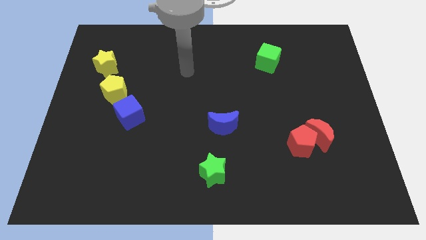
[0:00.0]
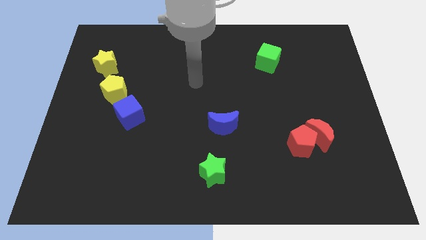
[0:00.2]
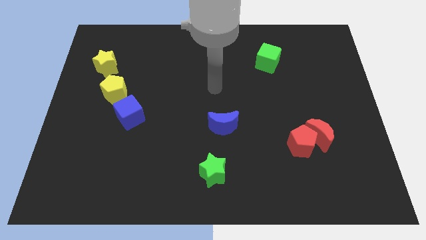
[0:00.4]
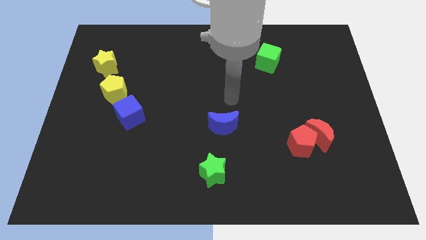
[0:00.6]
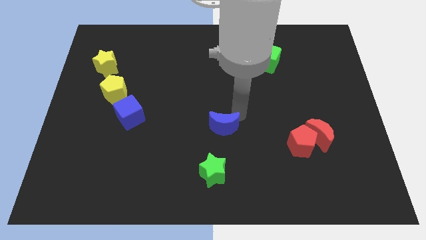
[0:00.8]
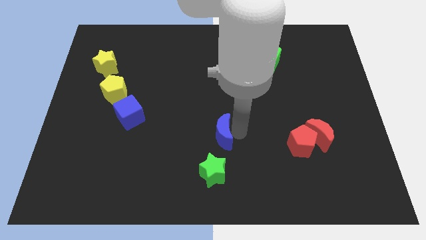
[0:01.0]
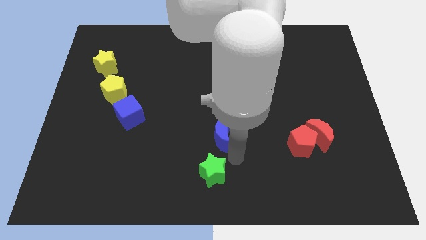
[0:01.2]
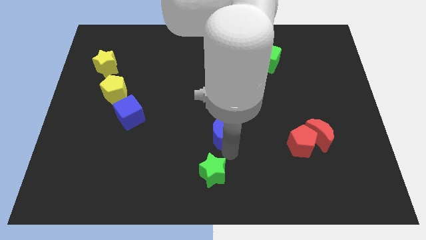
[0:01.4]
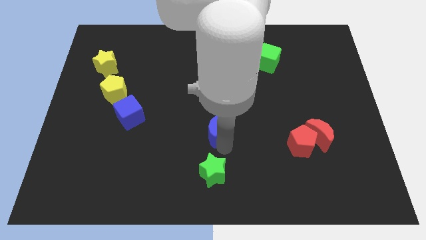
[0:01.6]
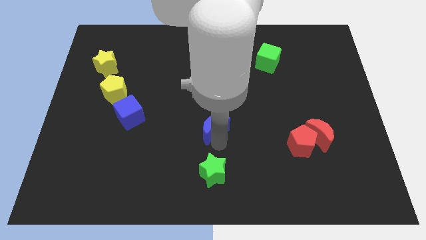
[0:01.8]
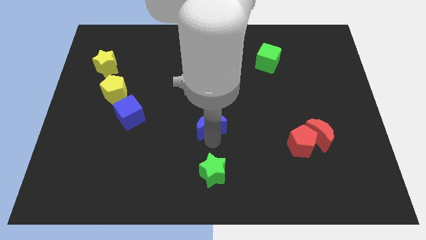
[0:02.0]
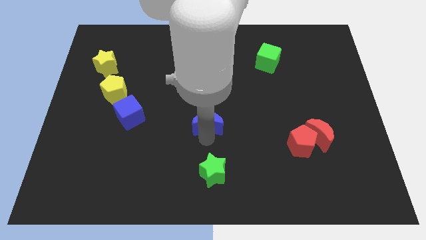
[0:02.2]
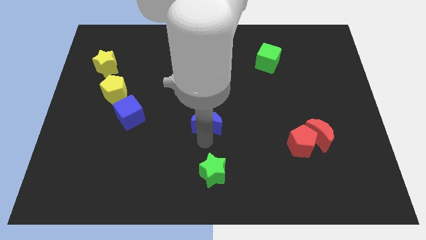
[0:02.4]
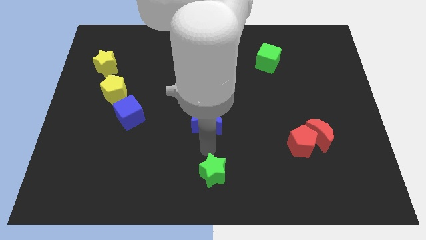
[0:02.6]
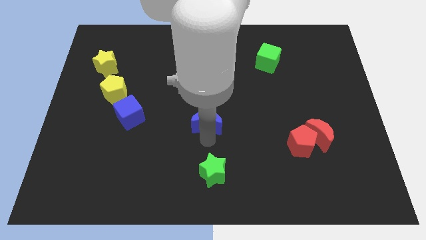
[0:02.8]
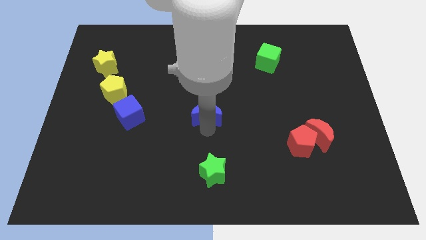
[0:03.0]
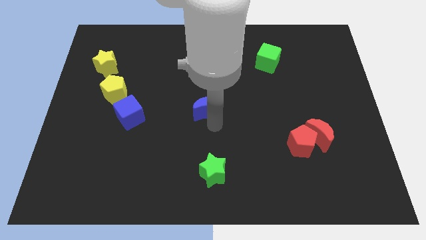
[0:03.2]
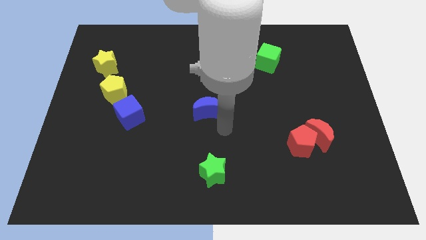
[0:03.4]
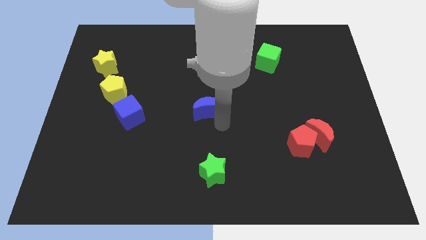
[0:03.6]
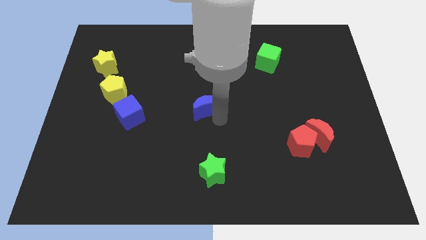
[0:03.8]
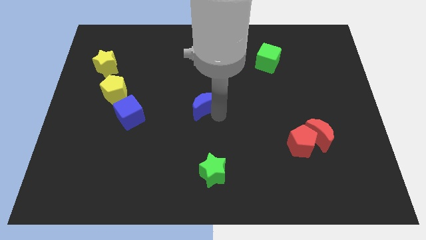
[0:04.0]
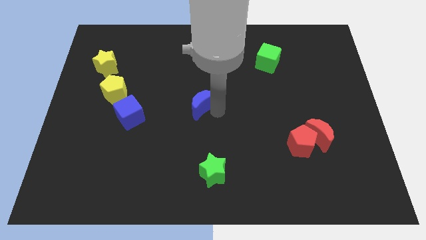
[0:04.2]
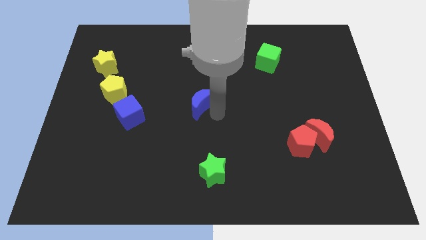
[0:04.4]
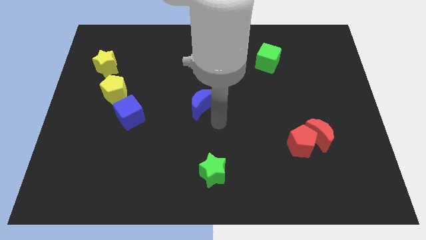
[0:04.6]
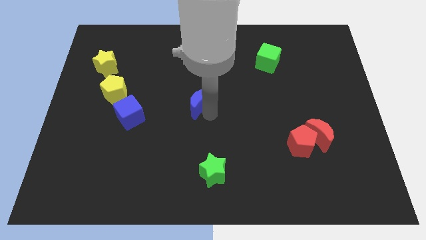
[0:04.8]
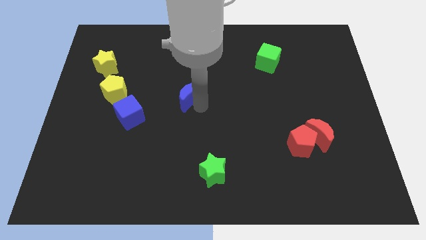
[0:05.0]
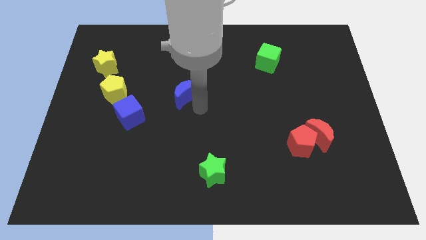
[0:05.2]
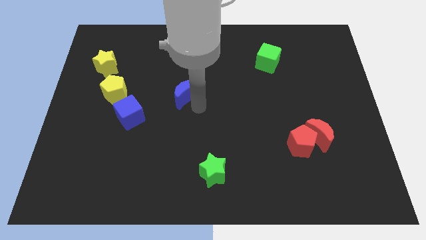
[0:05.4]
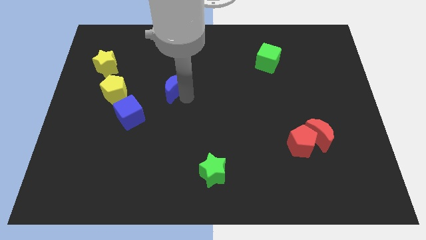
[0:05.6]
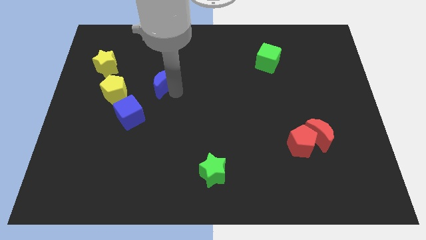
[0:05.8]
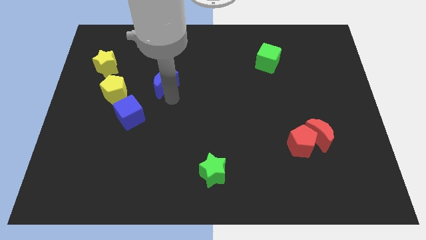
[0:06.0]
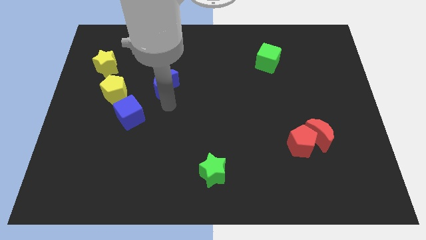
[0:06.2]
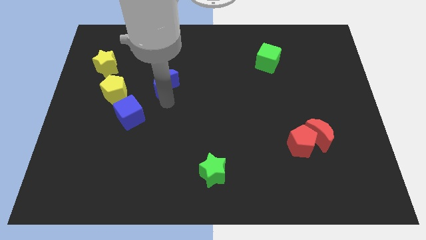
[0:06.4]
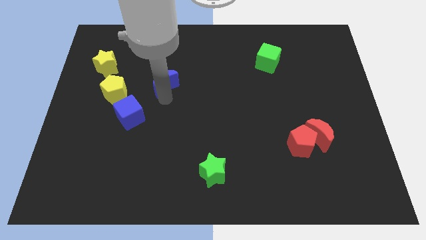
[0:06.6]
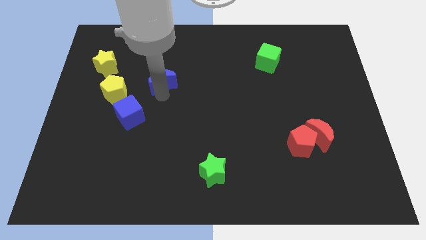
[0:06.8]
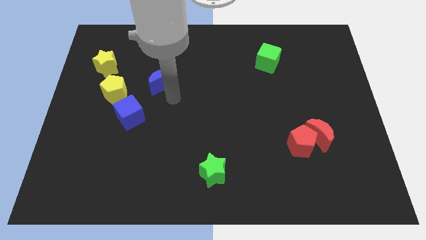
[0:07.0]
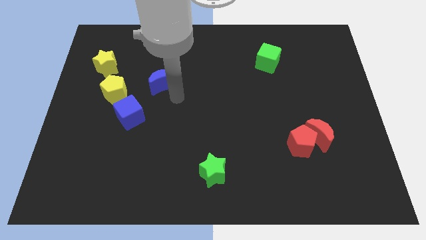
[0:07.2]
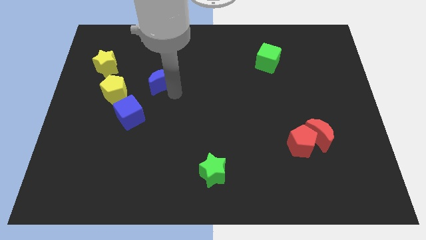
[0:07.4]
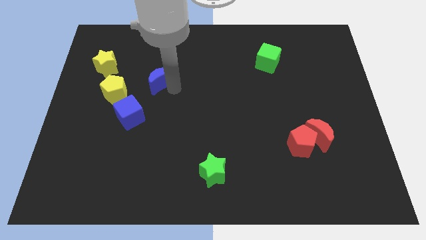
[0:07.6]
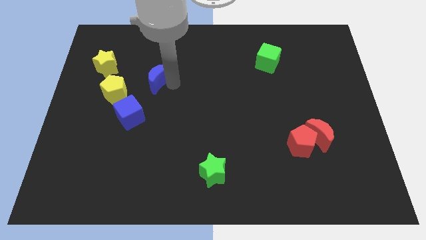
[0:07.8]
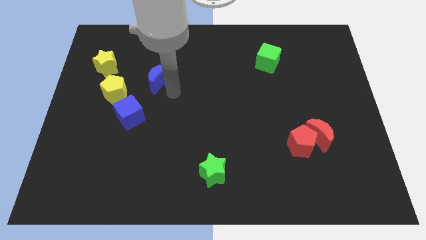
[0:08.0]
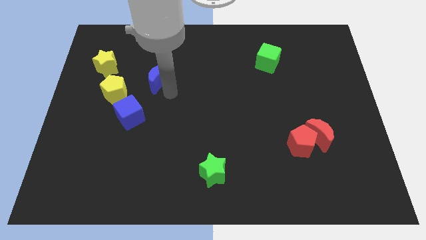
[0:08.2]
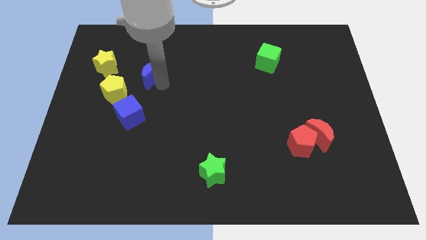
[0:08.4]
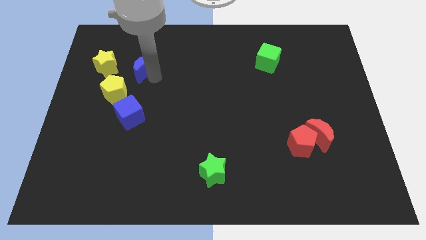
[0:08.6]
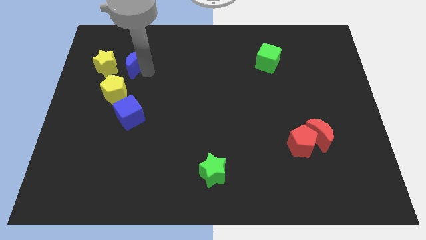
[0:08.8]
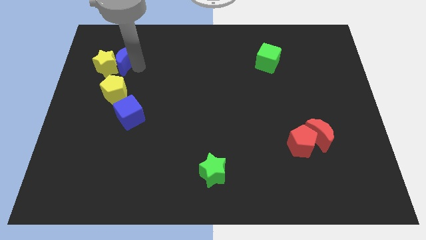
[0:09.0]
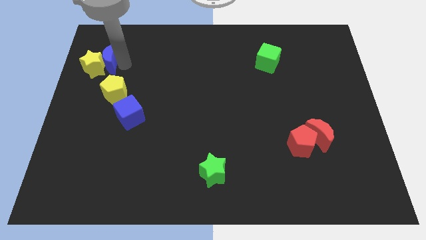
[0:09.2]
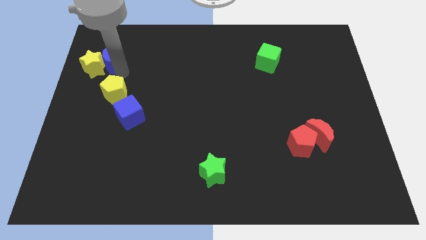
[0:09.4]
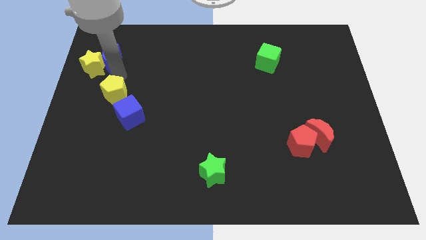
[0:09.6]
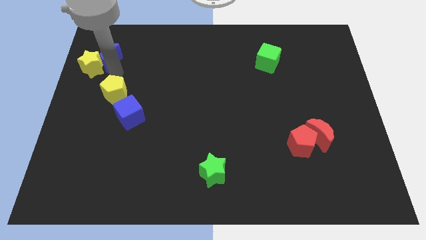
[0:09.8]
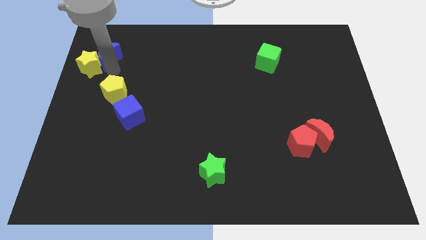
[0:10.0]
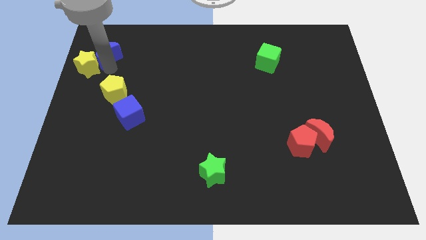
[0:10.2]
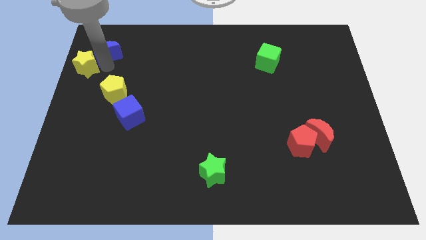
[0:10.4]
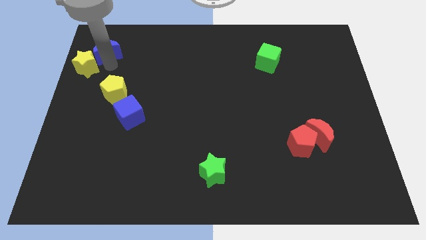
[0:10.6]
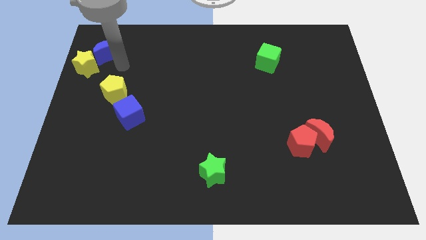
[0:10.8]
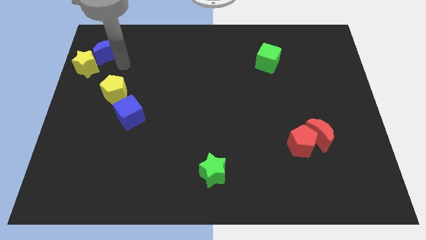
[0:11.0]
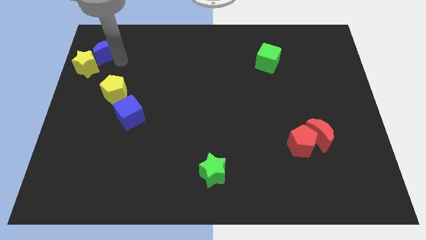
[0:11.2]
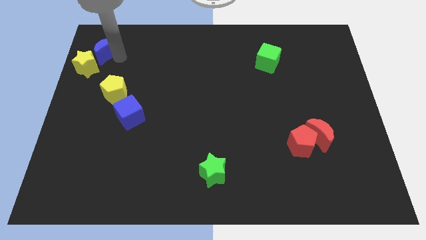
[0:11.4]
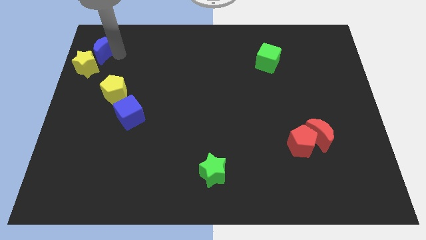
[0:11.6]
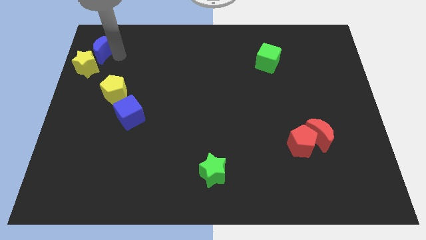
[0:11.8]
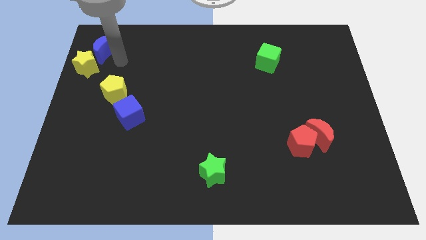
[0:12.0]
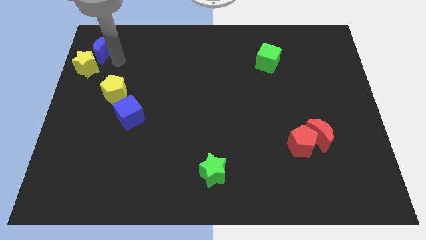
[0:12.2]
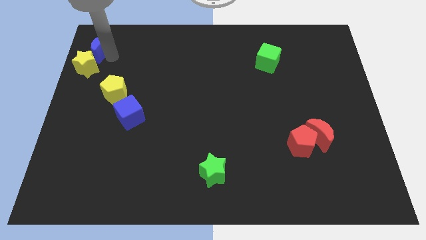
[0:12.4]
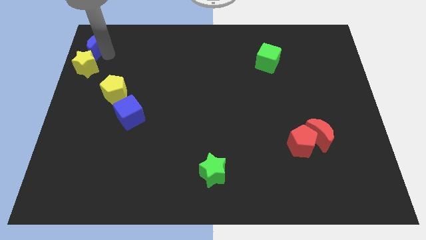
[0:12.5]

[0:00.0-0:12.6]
put the blue moon to the top left of the board
